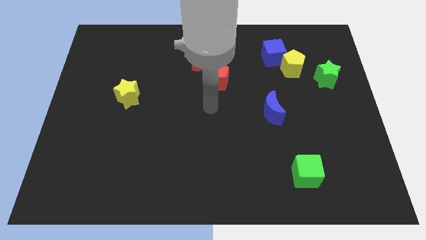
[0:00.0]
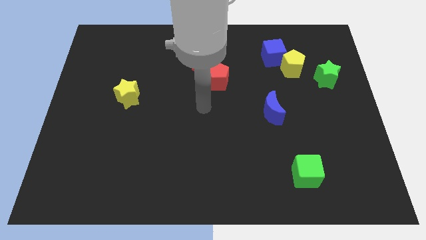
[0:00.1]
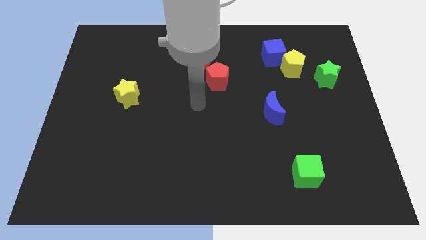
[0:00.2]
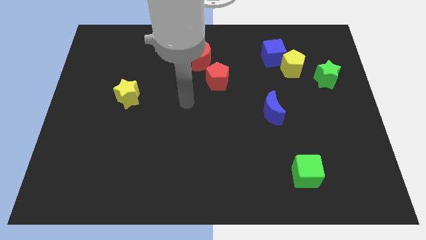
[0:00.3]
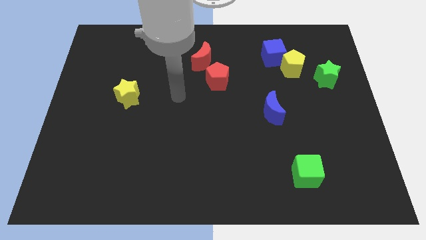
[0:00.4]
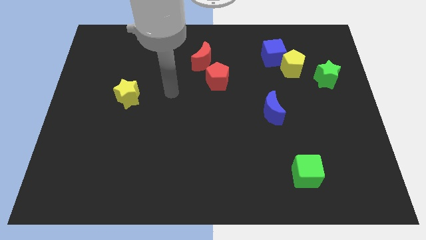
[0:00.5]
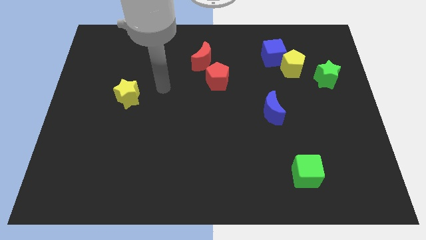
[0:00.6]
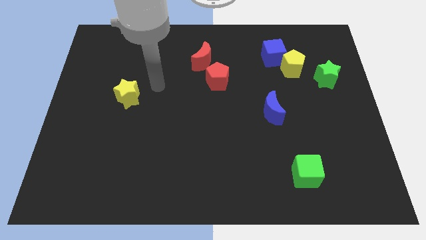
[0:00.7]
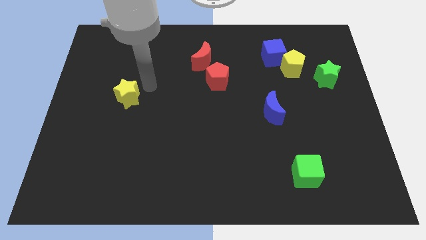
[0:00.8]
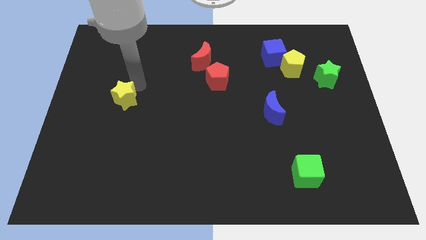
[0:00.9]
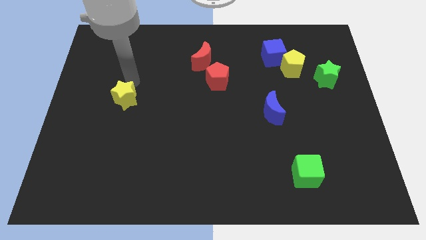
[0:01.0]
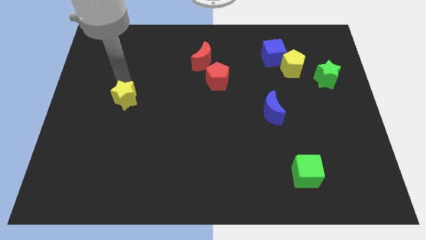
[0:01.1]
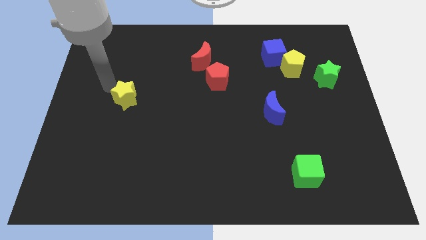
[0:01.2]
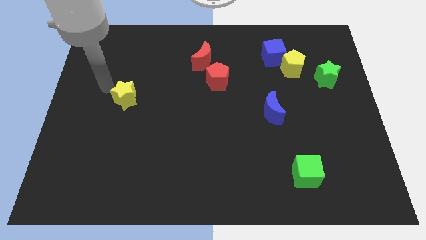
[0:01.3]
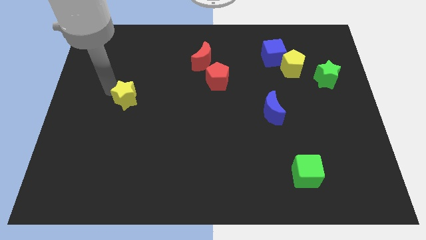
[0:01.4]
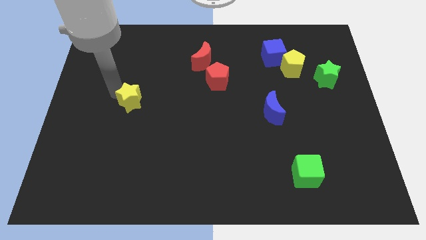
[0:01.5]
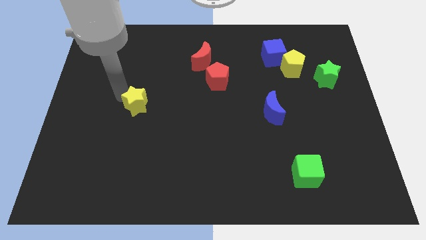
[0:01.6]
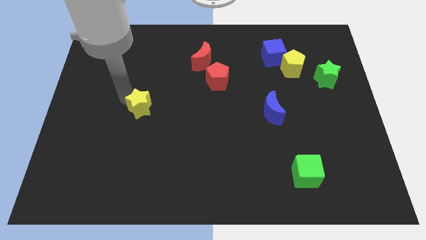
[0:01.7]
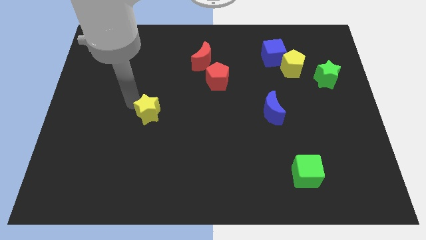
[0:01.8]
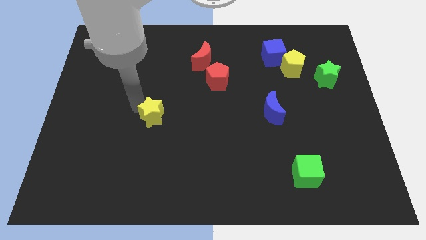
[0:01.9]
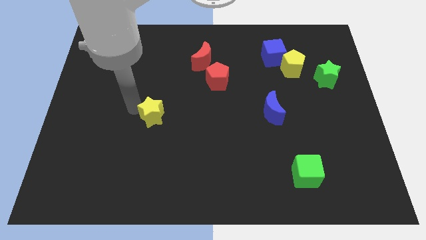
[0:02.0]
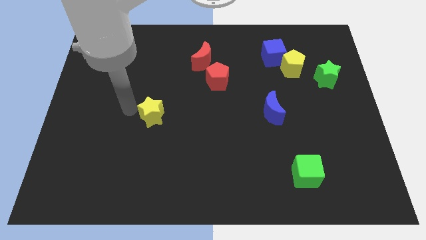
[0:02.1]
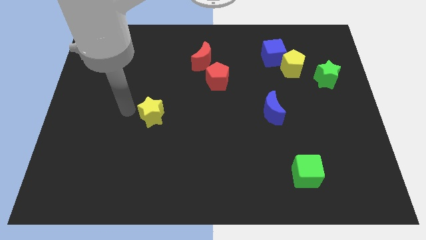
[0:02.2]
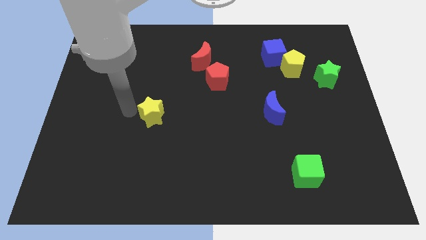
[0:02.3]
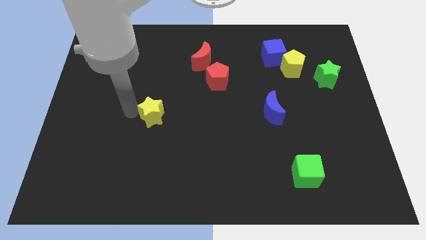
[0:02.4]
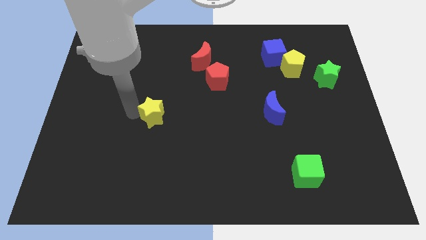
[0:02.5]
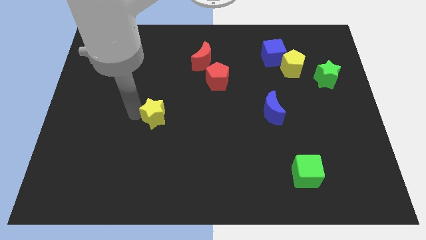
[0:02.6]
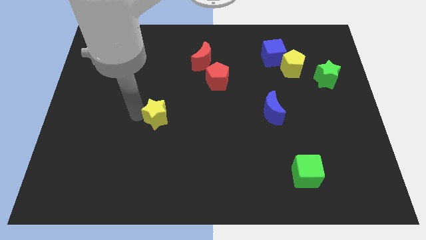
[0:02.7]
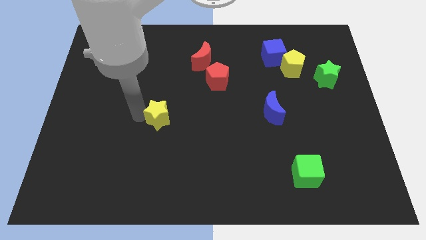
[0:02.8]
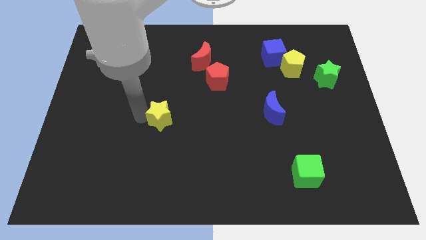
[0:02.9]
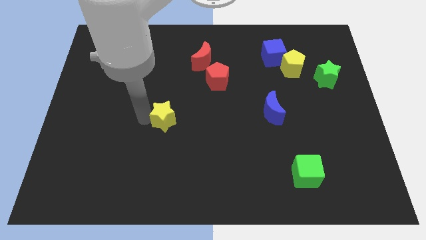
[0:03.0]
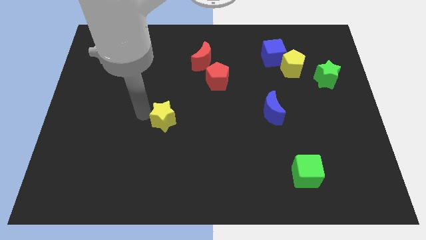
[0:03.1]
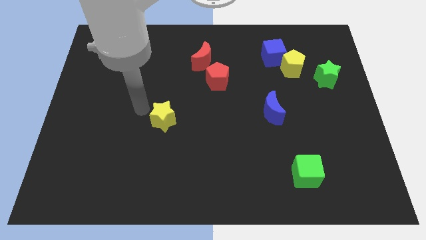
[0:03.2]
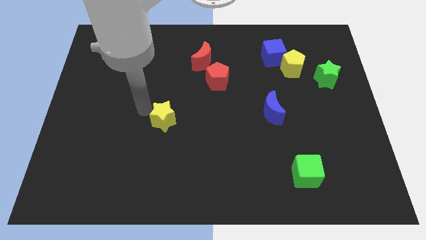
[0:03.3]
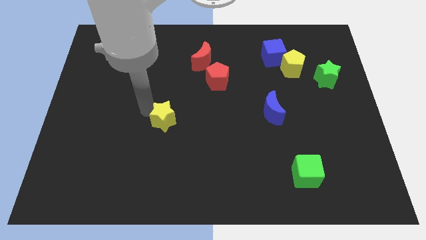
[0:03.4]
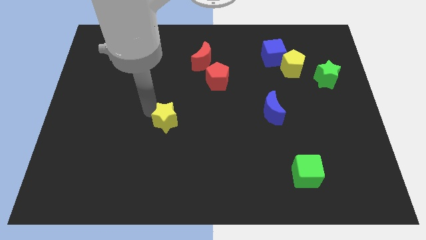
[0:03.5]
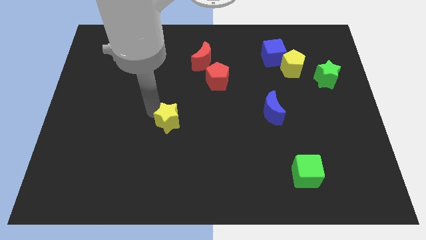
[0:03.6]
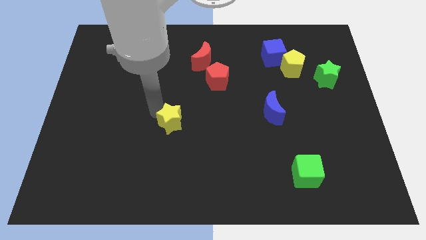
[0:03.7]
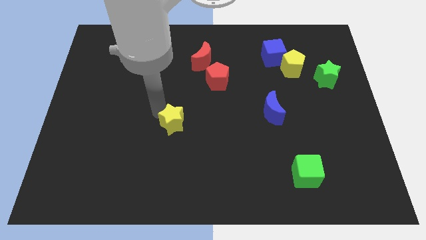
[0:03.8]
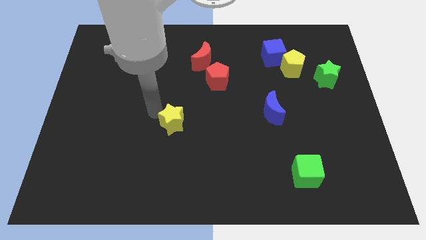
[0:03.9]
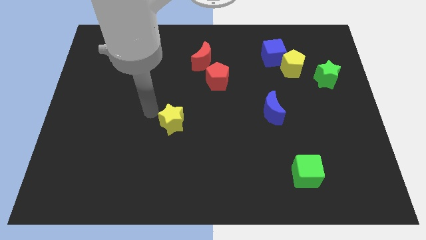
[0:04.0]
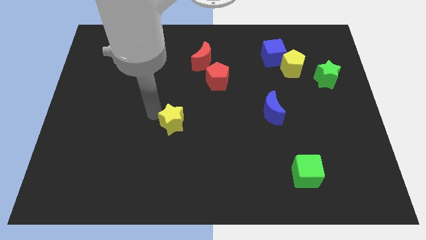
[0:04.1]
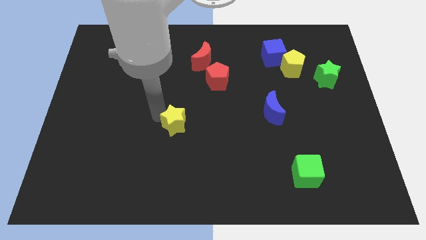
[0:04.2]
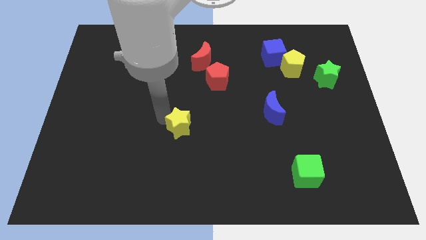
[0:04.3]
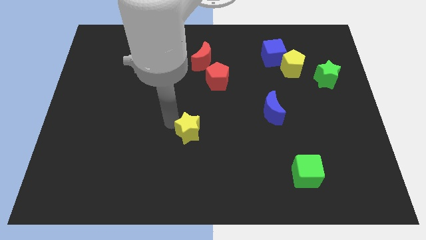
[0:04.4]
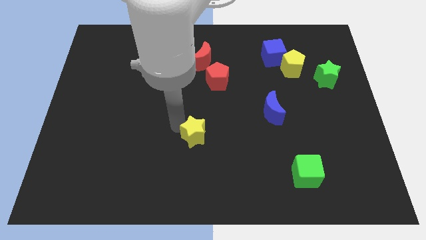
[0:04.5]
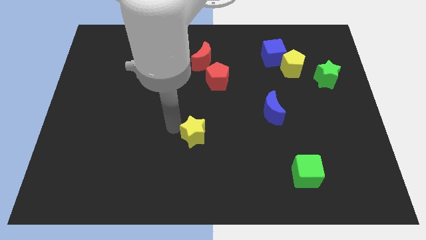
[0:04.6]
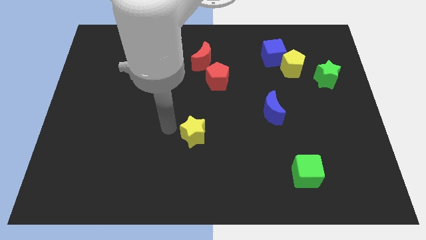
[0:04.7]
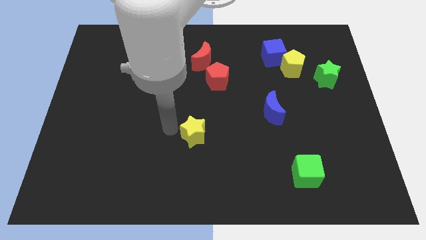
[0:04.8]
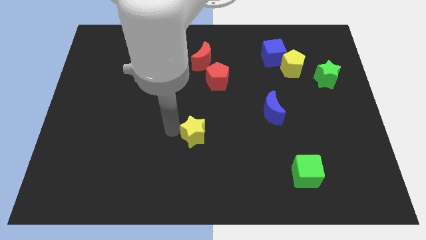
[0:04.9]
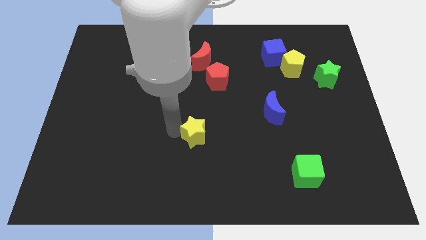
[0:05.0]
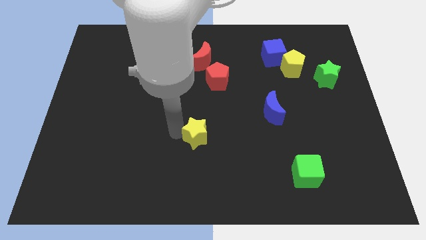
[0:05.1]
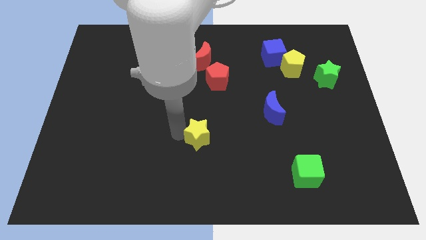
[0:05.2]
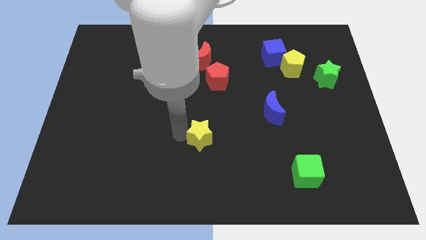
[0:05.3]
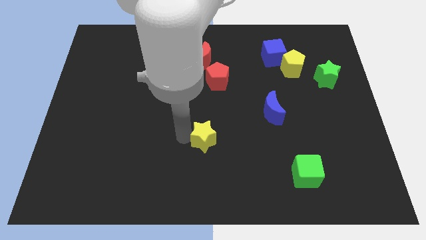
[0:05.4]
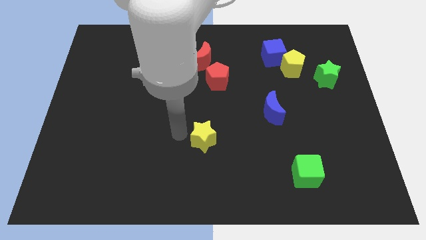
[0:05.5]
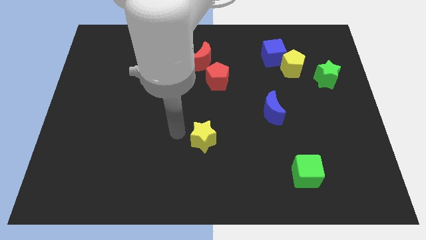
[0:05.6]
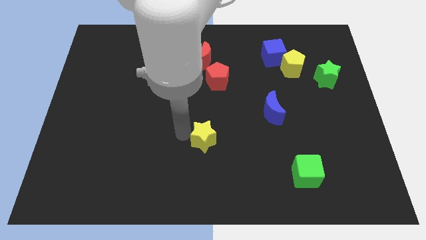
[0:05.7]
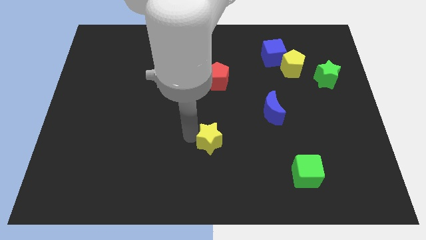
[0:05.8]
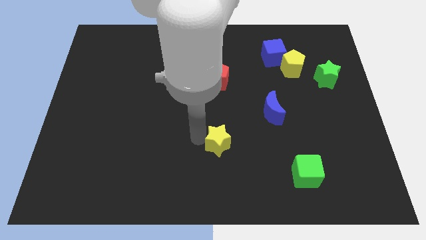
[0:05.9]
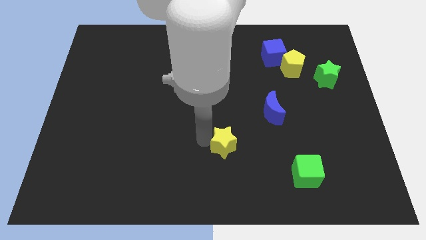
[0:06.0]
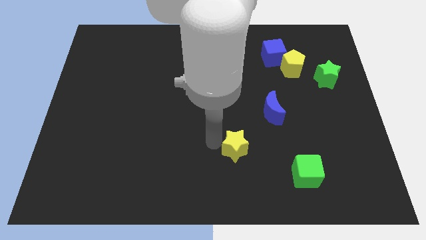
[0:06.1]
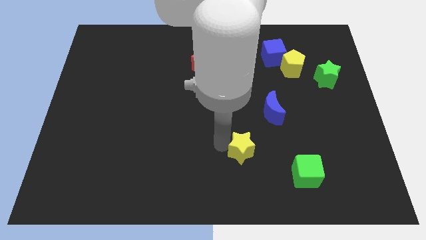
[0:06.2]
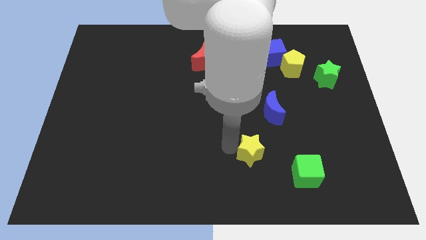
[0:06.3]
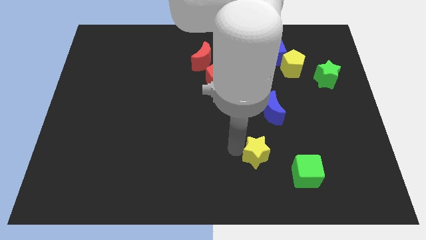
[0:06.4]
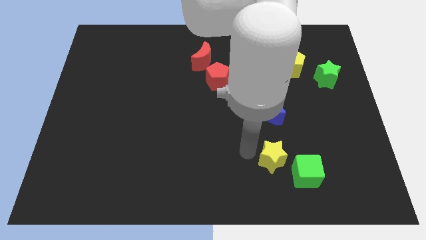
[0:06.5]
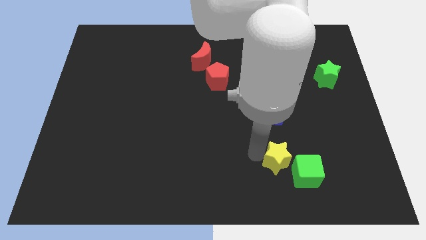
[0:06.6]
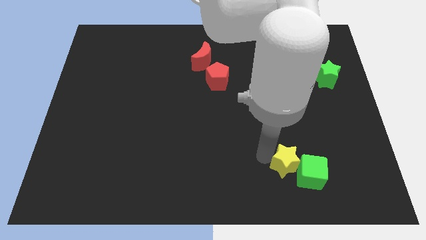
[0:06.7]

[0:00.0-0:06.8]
move the yellow star close to the green cube
